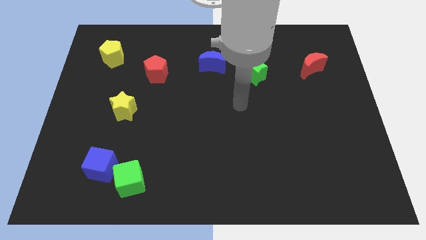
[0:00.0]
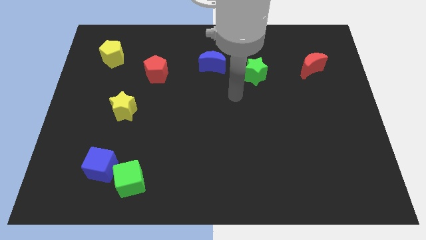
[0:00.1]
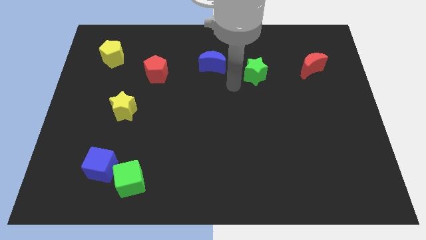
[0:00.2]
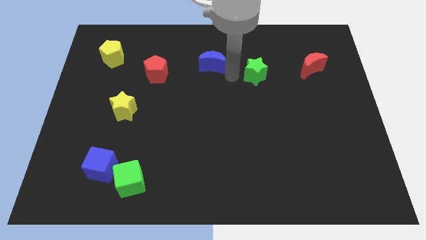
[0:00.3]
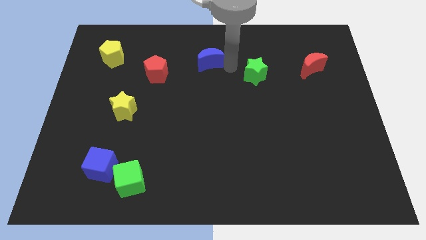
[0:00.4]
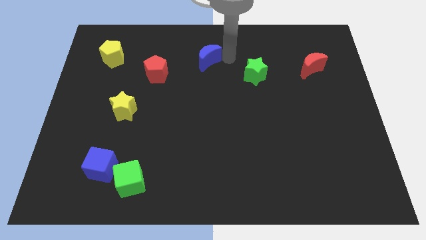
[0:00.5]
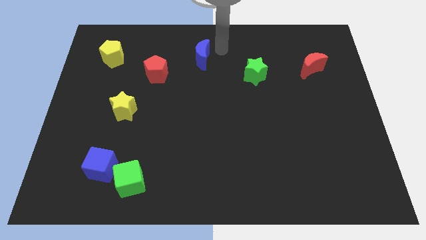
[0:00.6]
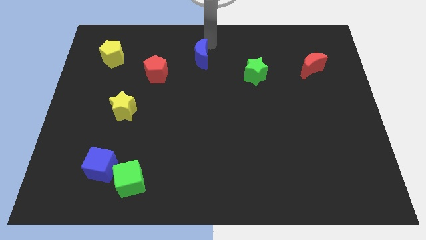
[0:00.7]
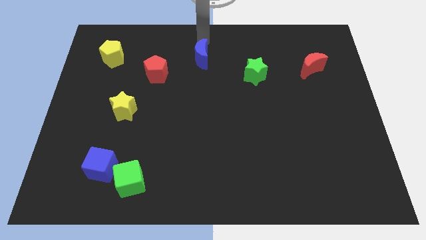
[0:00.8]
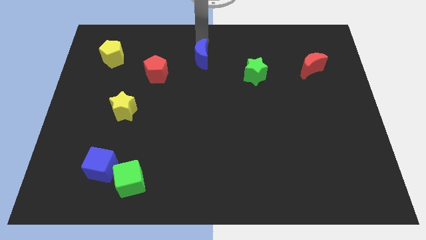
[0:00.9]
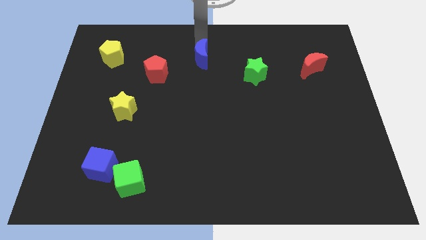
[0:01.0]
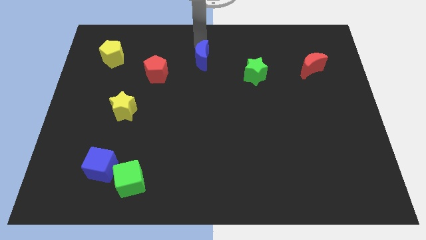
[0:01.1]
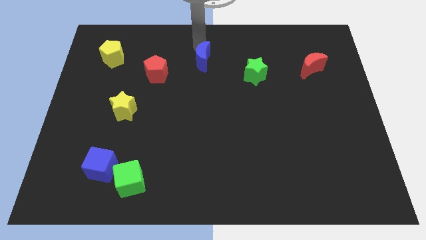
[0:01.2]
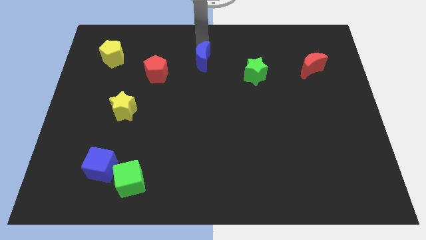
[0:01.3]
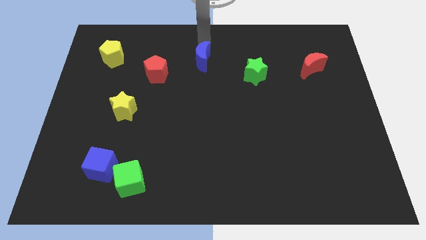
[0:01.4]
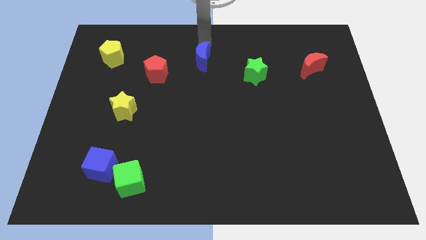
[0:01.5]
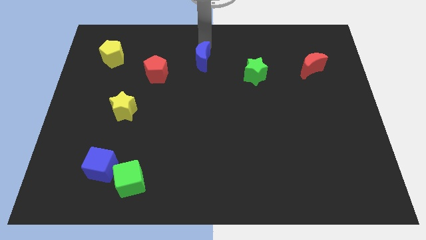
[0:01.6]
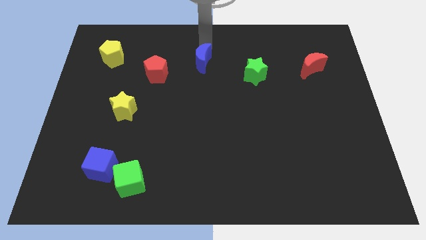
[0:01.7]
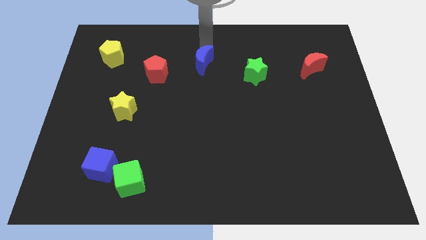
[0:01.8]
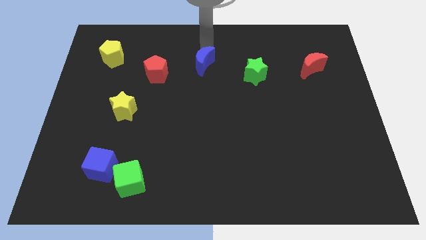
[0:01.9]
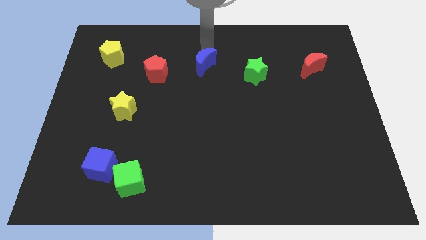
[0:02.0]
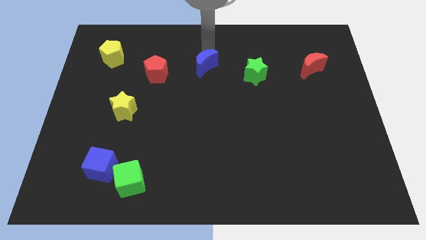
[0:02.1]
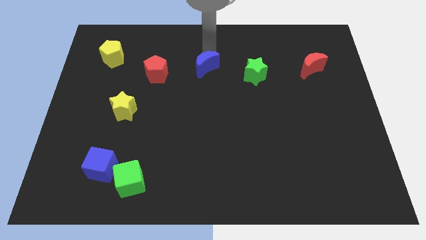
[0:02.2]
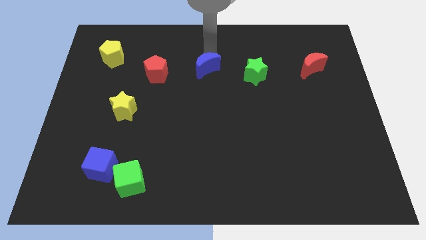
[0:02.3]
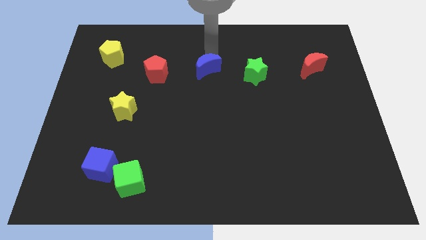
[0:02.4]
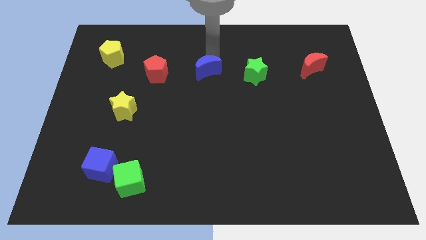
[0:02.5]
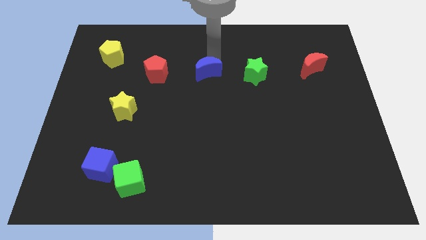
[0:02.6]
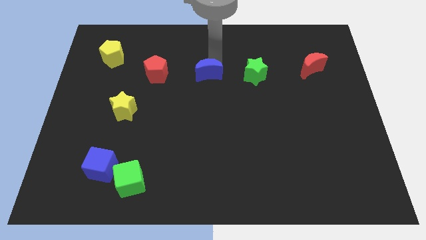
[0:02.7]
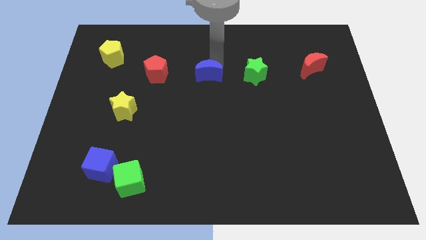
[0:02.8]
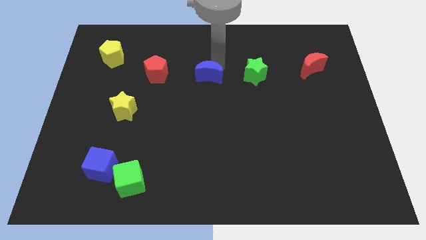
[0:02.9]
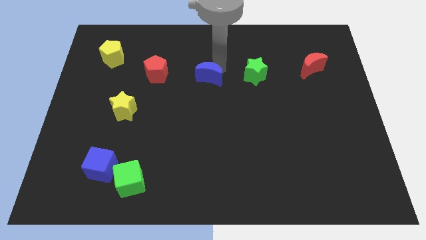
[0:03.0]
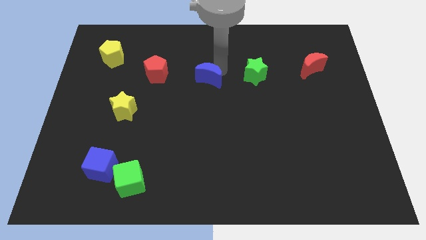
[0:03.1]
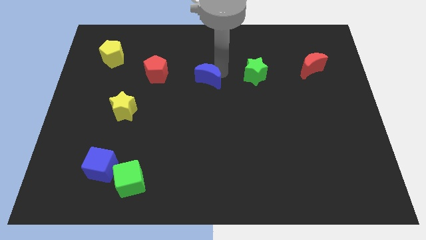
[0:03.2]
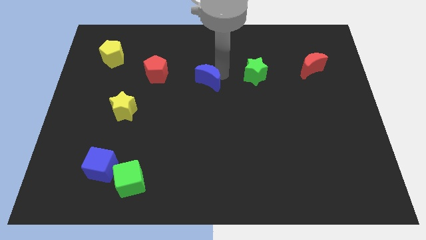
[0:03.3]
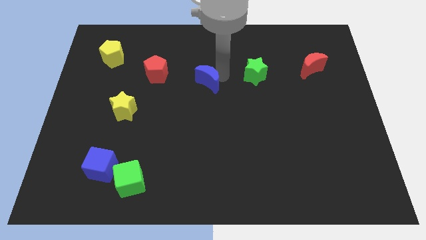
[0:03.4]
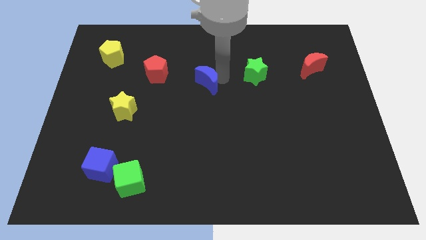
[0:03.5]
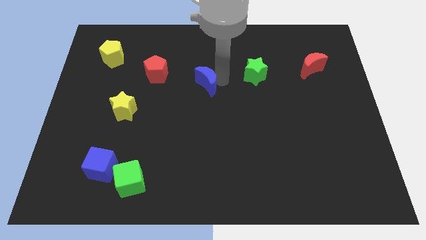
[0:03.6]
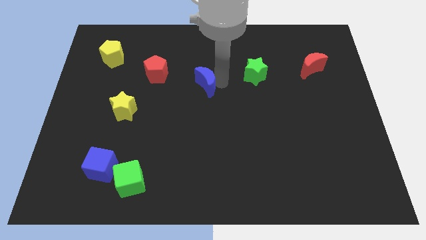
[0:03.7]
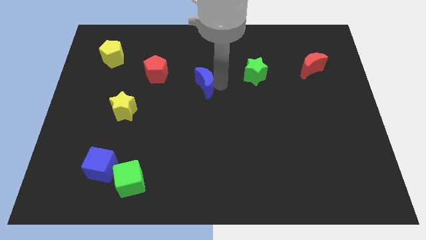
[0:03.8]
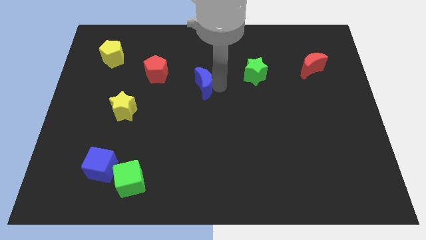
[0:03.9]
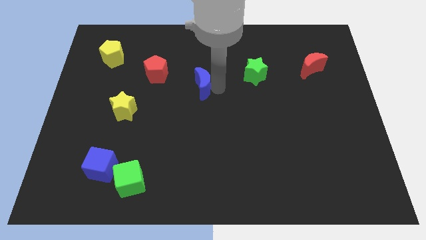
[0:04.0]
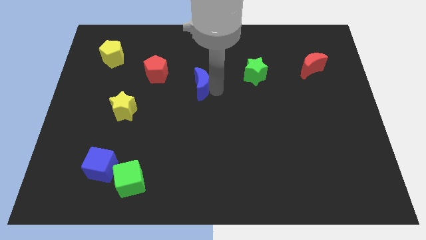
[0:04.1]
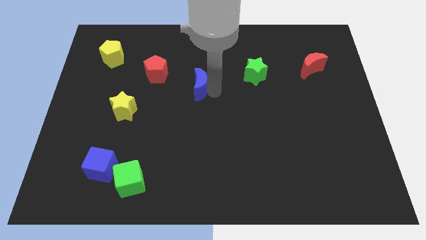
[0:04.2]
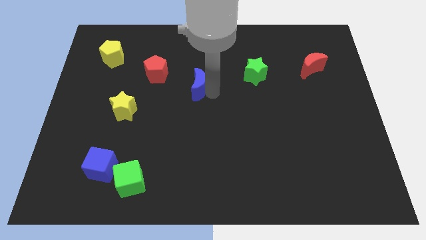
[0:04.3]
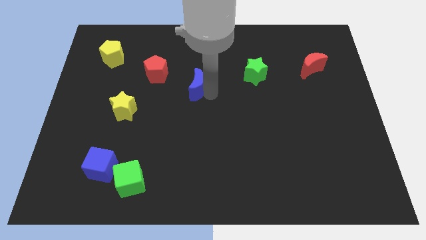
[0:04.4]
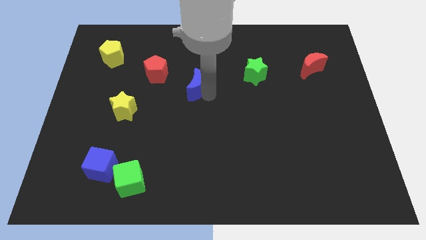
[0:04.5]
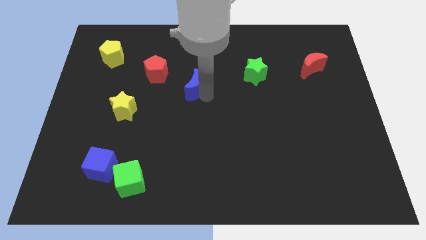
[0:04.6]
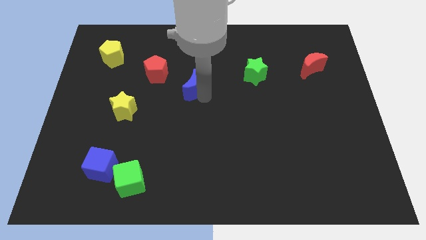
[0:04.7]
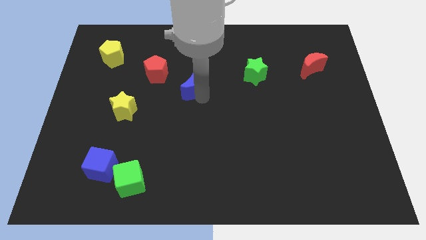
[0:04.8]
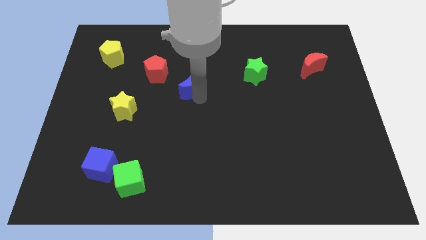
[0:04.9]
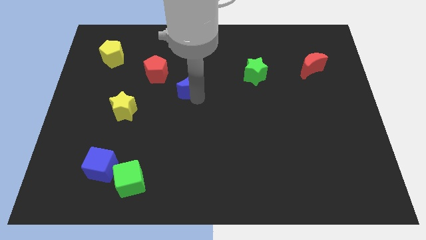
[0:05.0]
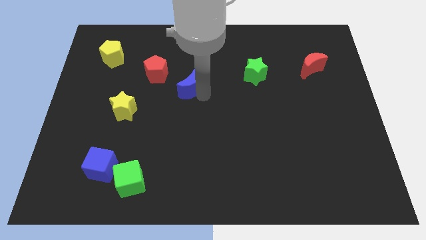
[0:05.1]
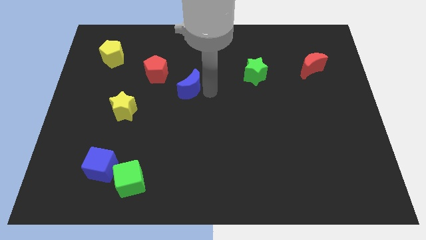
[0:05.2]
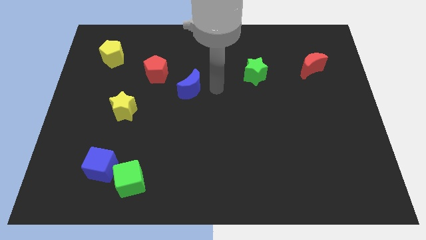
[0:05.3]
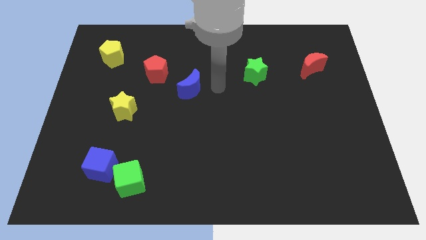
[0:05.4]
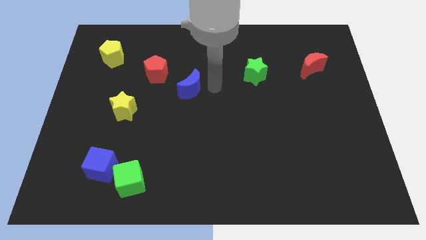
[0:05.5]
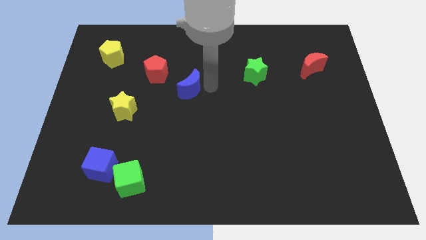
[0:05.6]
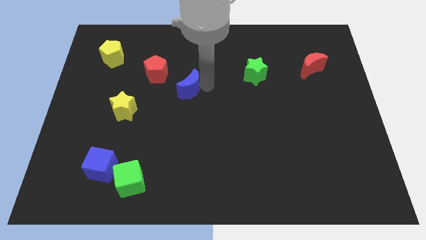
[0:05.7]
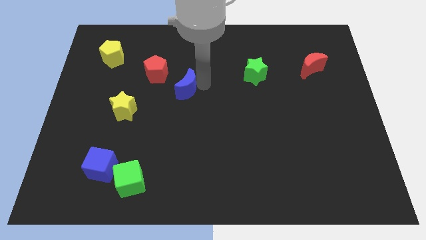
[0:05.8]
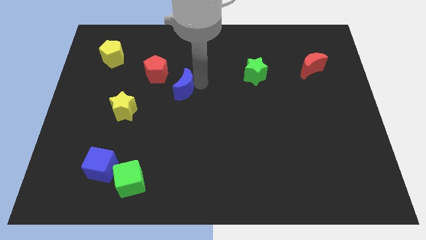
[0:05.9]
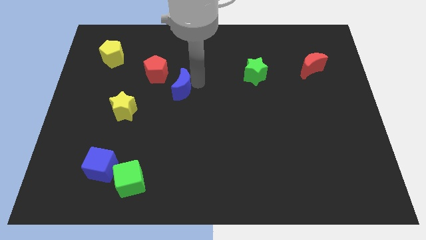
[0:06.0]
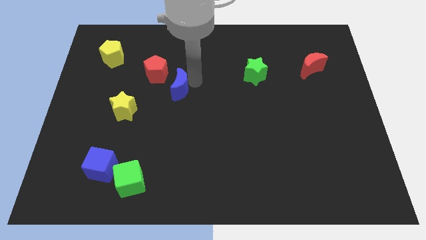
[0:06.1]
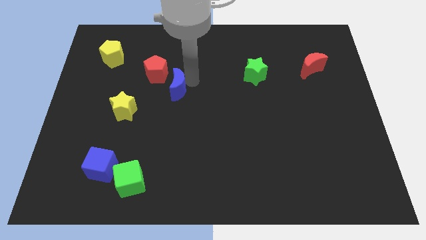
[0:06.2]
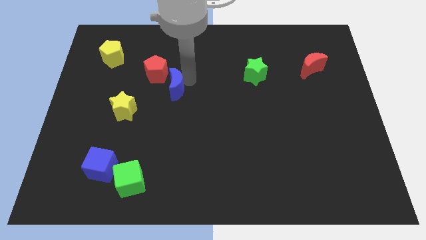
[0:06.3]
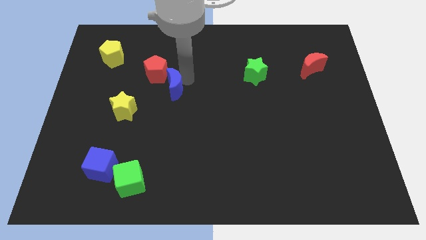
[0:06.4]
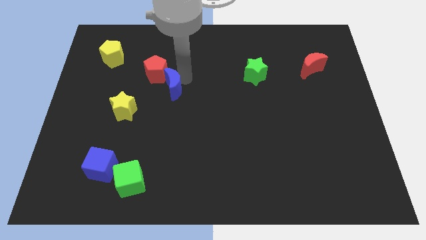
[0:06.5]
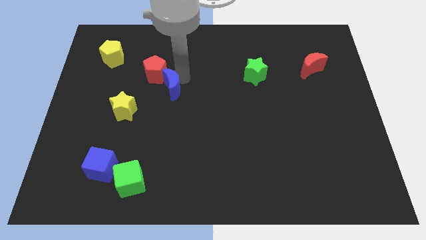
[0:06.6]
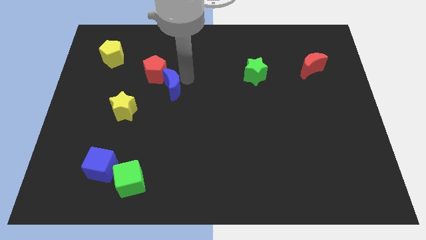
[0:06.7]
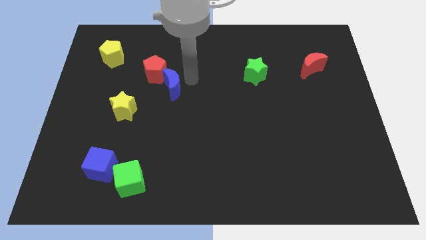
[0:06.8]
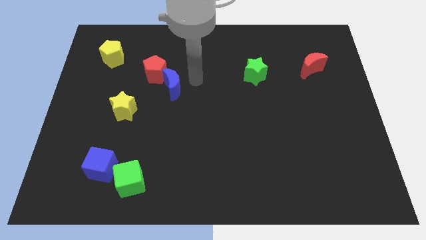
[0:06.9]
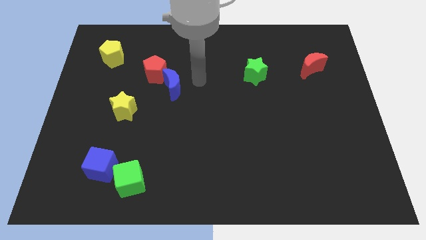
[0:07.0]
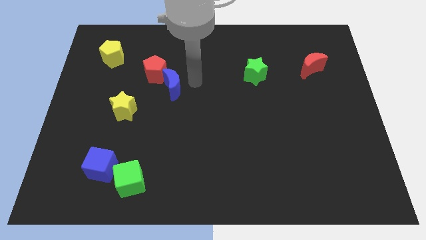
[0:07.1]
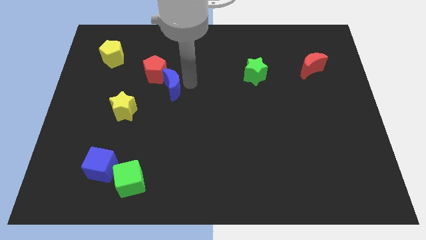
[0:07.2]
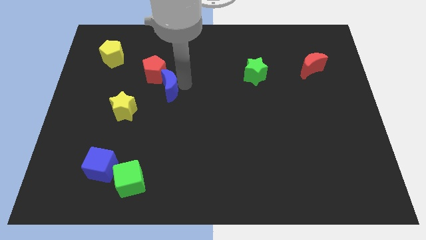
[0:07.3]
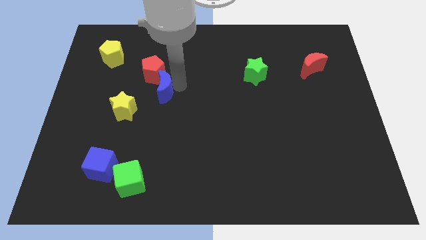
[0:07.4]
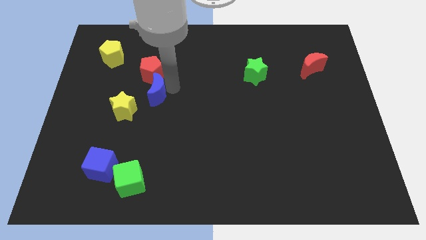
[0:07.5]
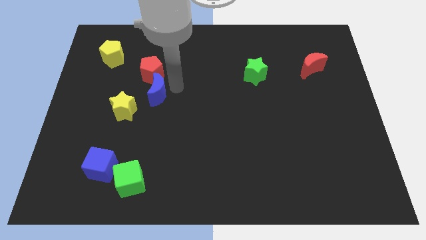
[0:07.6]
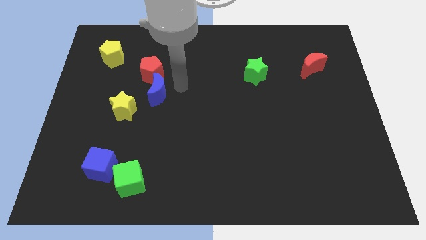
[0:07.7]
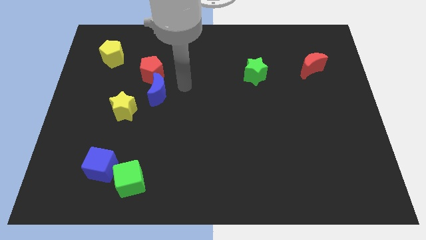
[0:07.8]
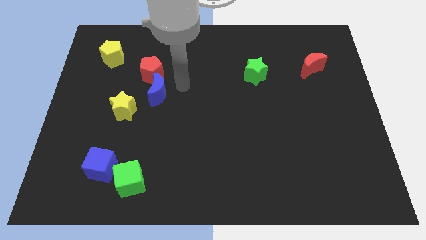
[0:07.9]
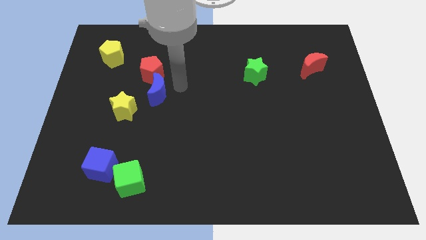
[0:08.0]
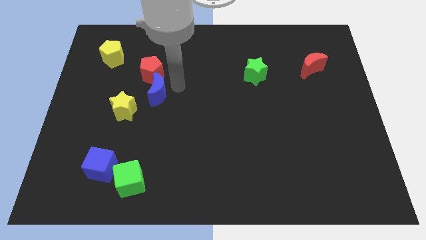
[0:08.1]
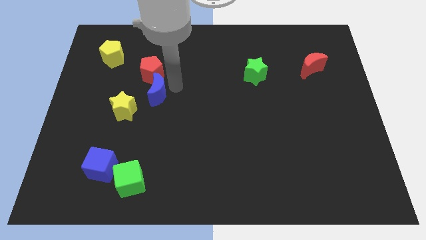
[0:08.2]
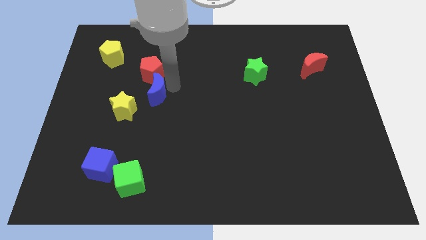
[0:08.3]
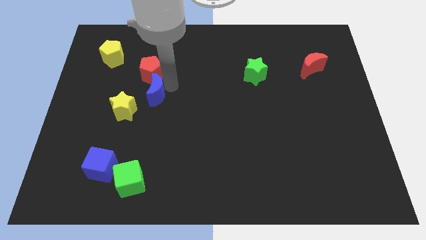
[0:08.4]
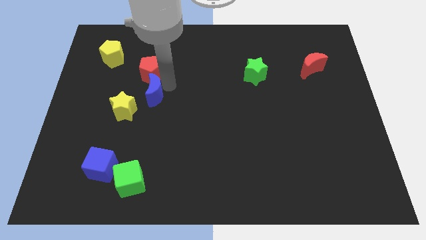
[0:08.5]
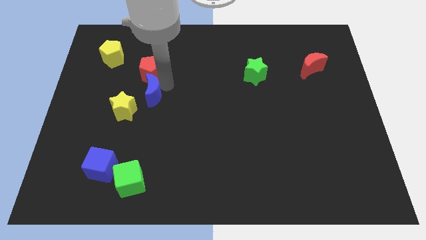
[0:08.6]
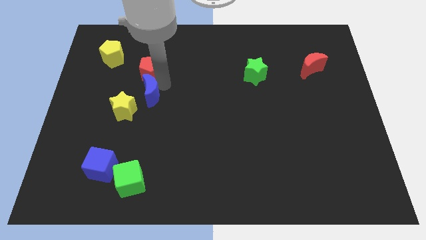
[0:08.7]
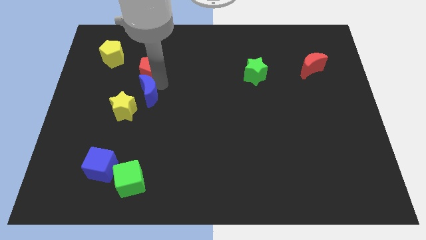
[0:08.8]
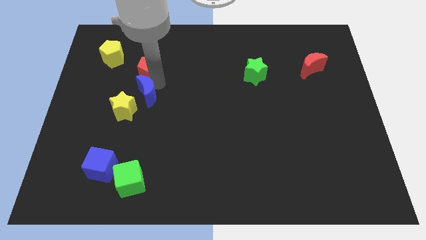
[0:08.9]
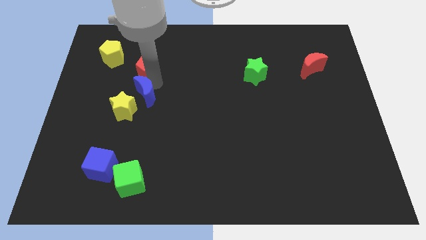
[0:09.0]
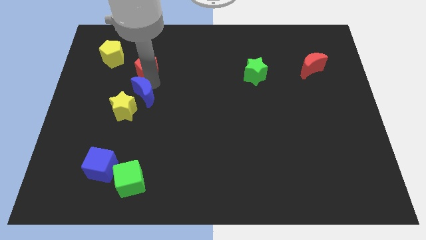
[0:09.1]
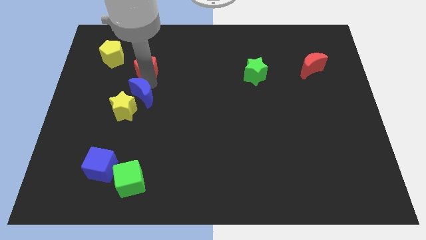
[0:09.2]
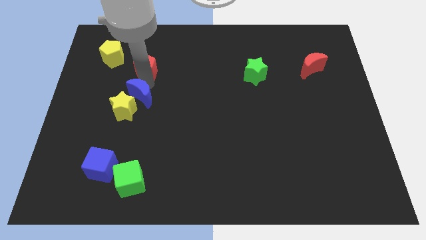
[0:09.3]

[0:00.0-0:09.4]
slide the blue moon towards the yellow star
